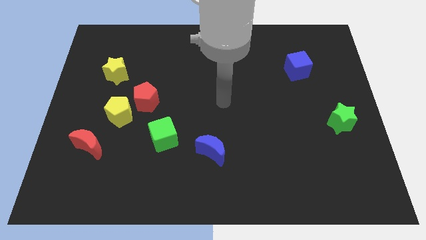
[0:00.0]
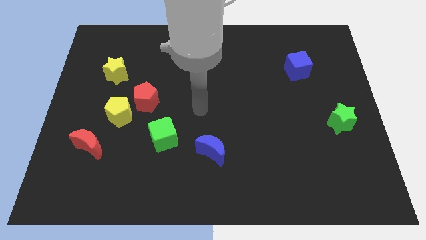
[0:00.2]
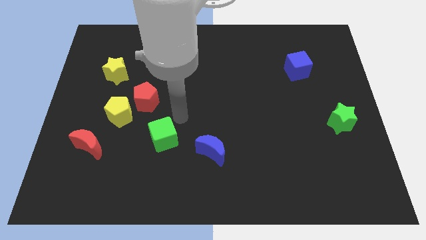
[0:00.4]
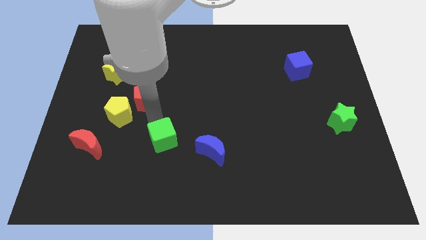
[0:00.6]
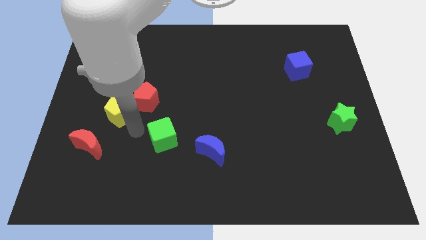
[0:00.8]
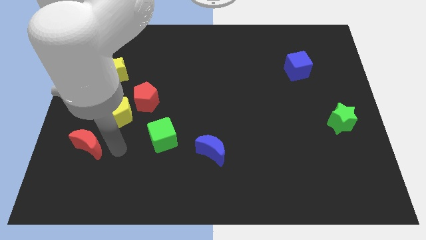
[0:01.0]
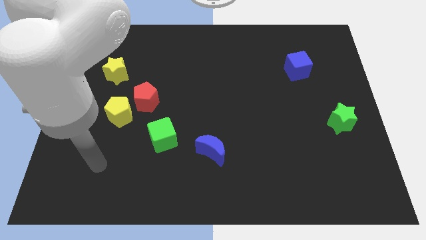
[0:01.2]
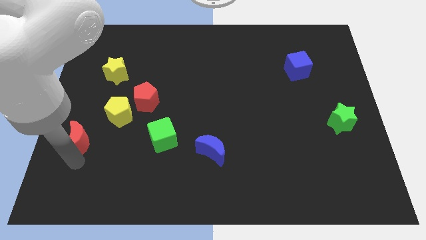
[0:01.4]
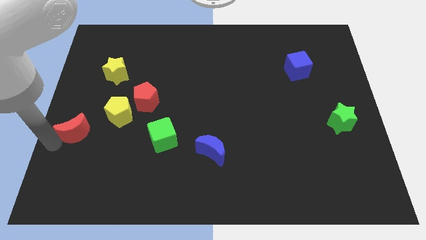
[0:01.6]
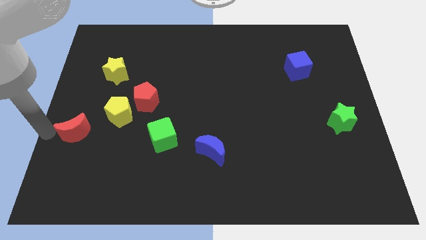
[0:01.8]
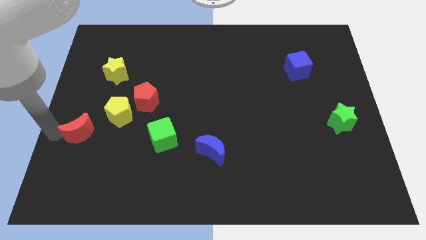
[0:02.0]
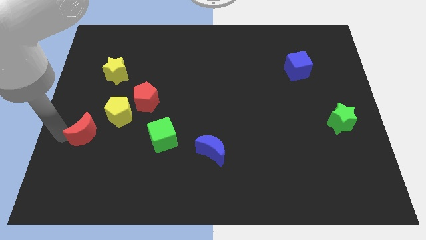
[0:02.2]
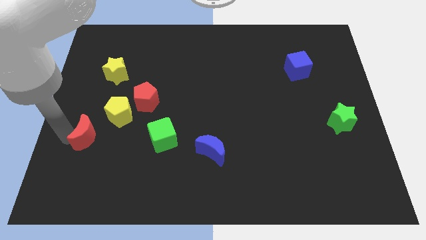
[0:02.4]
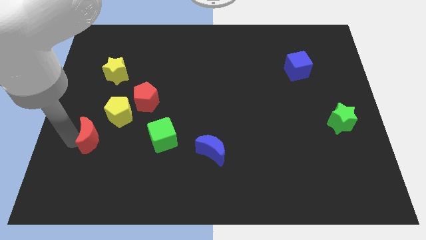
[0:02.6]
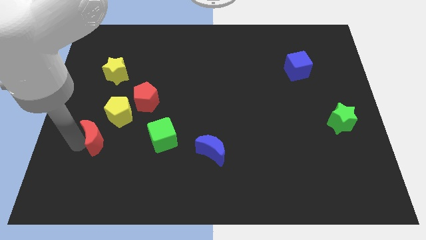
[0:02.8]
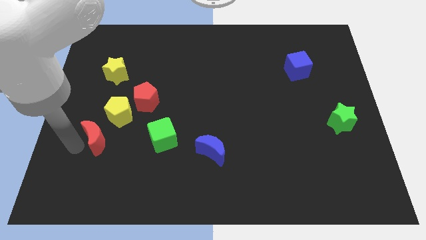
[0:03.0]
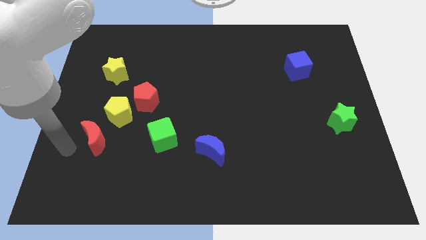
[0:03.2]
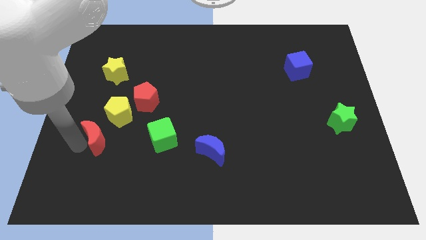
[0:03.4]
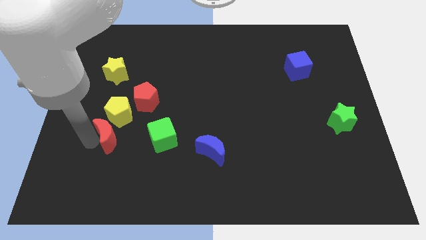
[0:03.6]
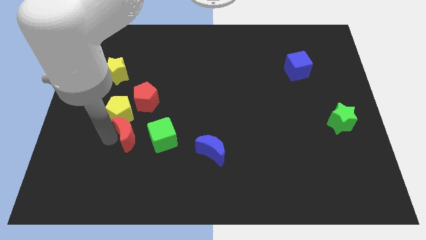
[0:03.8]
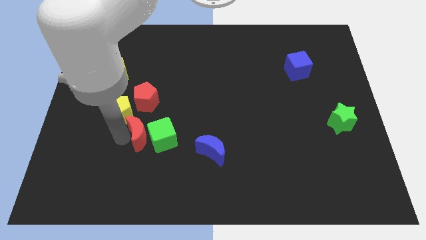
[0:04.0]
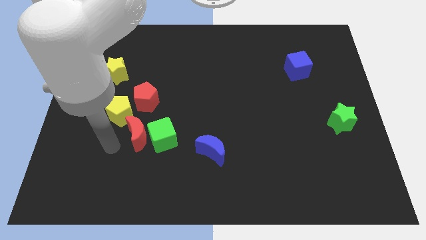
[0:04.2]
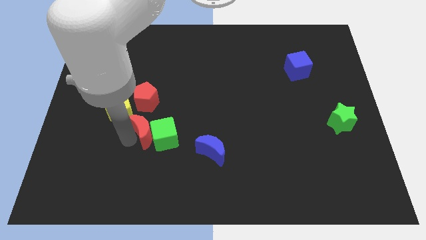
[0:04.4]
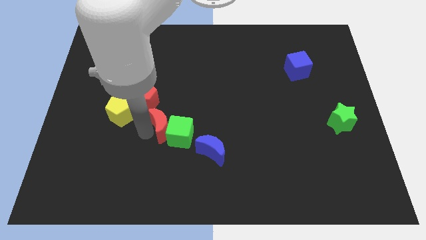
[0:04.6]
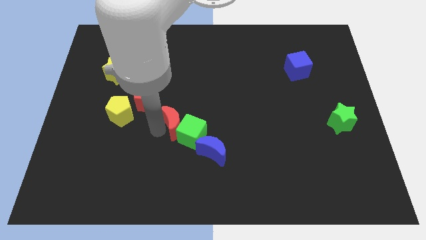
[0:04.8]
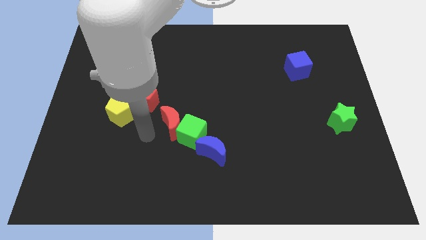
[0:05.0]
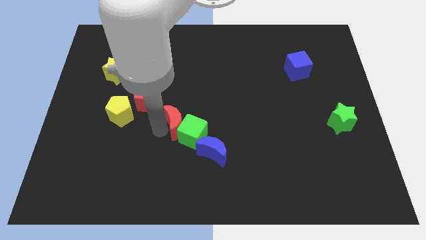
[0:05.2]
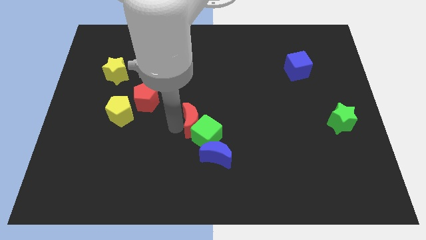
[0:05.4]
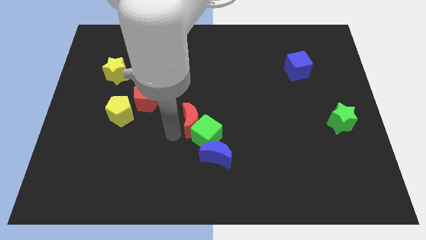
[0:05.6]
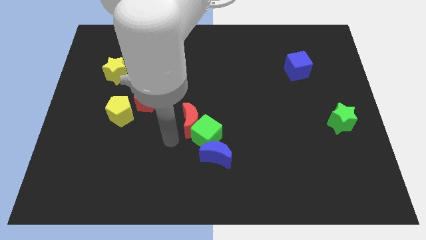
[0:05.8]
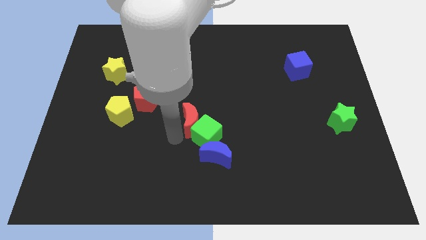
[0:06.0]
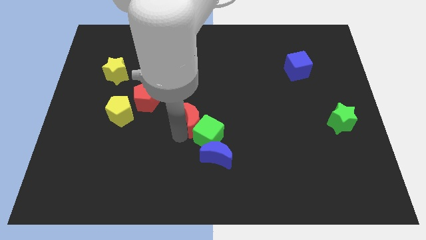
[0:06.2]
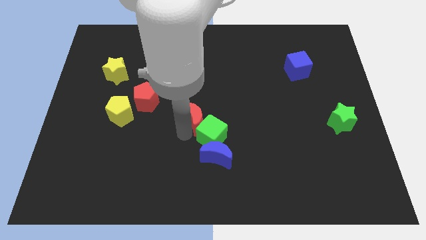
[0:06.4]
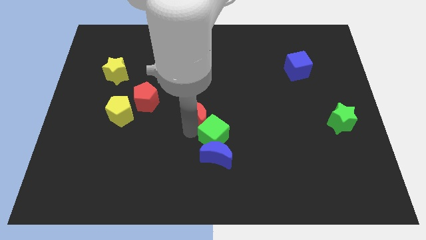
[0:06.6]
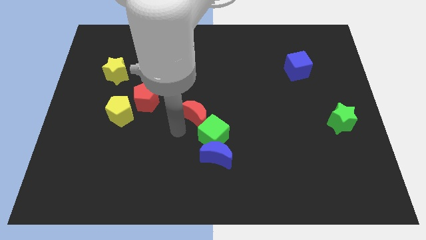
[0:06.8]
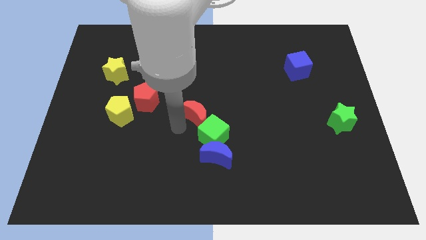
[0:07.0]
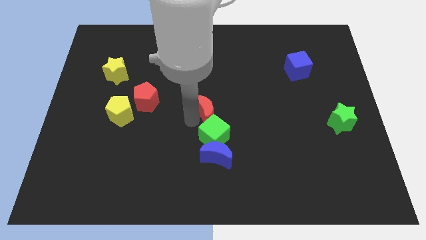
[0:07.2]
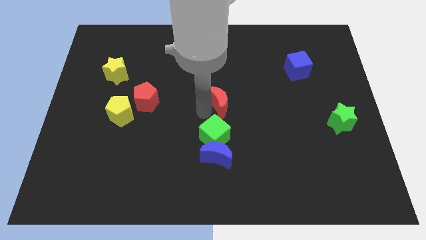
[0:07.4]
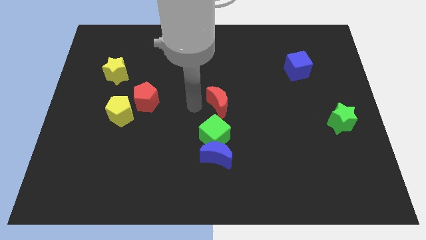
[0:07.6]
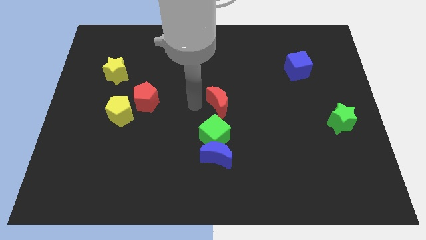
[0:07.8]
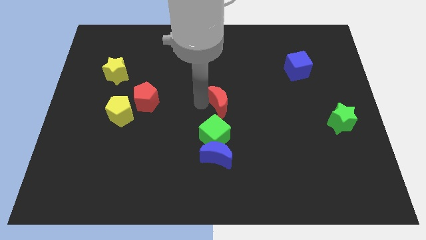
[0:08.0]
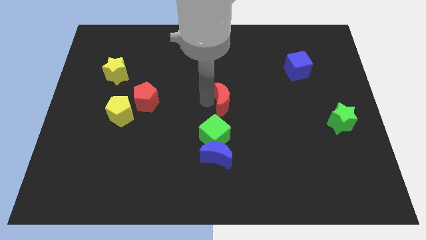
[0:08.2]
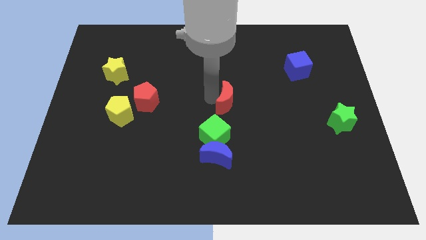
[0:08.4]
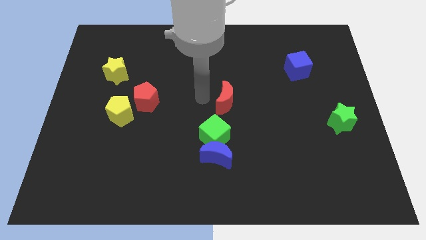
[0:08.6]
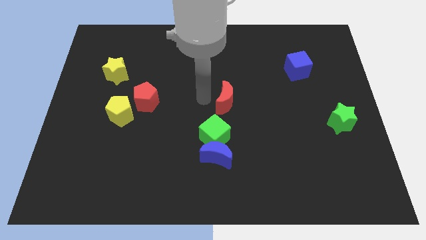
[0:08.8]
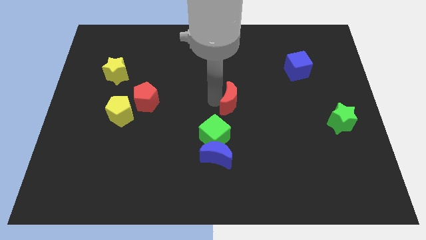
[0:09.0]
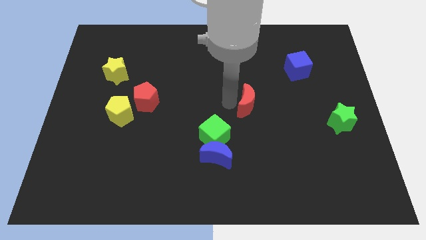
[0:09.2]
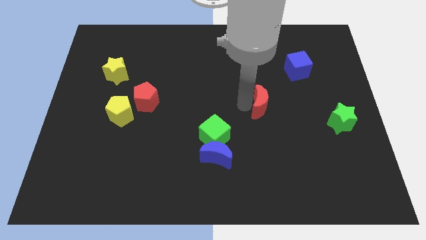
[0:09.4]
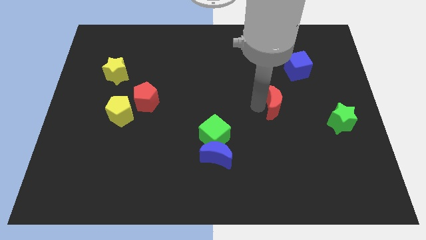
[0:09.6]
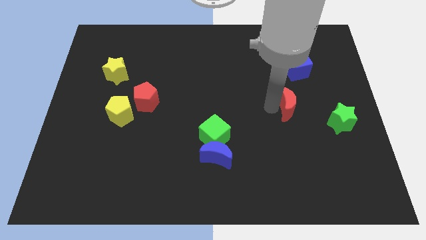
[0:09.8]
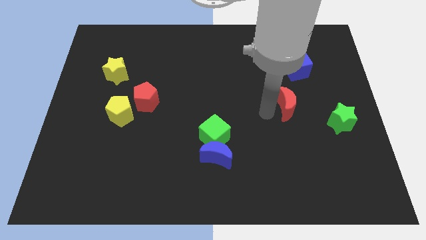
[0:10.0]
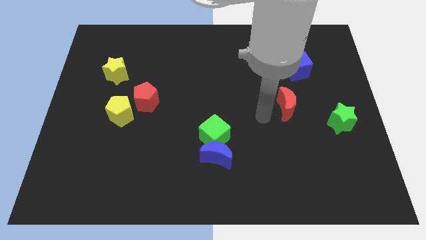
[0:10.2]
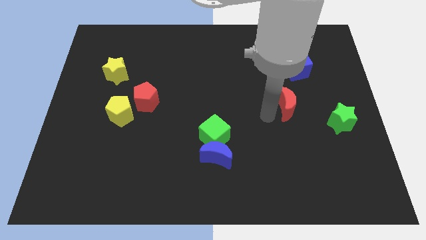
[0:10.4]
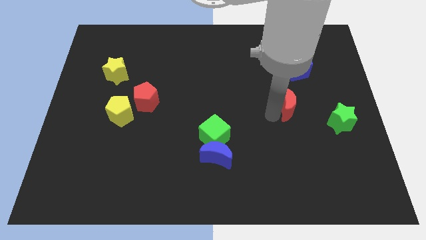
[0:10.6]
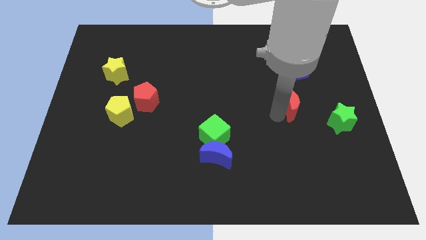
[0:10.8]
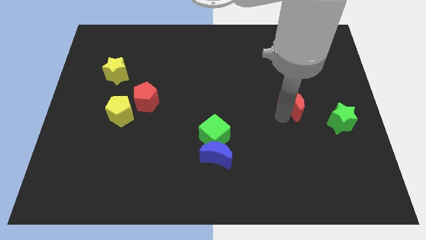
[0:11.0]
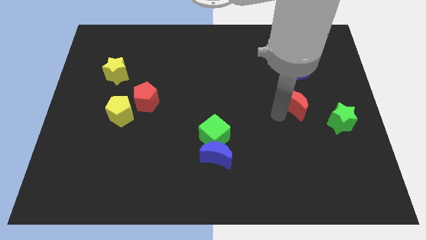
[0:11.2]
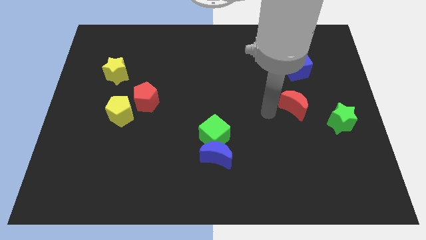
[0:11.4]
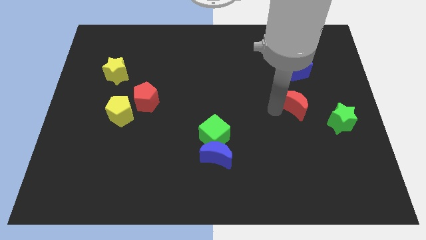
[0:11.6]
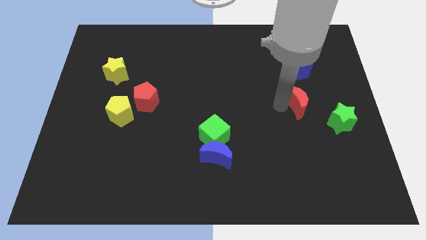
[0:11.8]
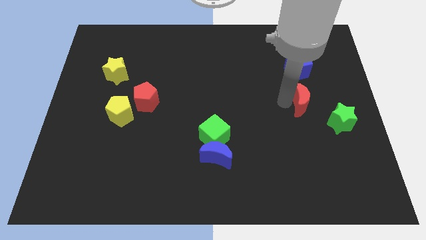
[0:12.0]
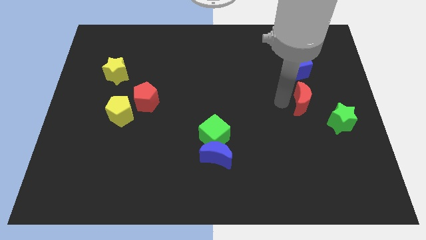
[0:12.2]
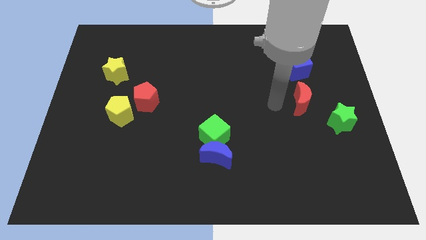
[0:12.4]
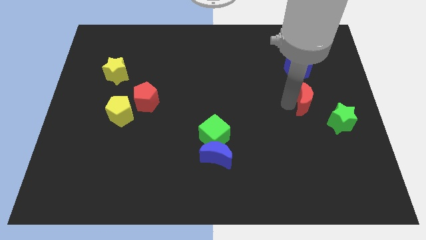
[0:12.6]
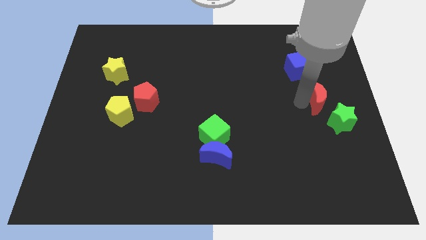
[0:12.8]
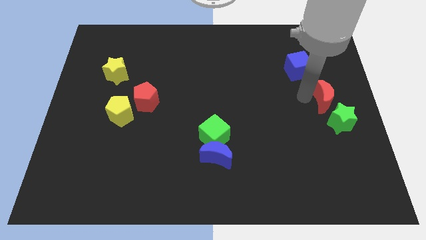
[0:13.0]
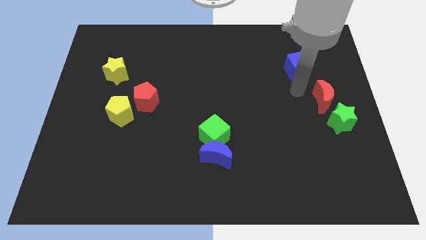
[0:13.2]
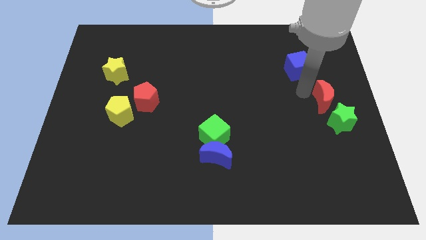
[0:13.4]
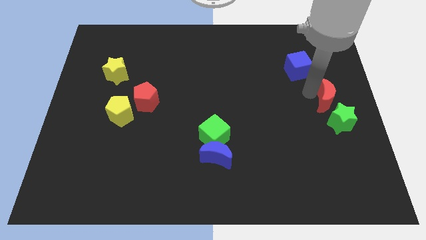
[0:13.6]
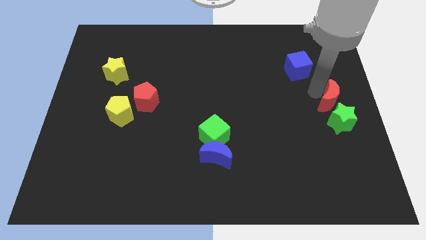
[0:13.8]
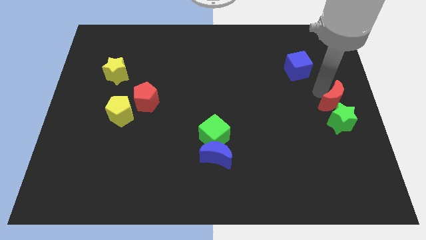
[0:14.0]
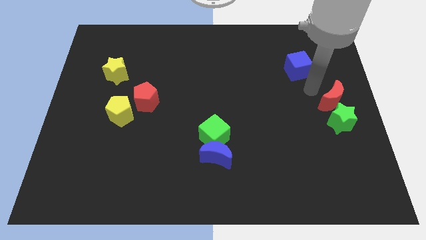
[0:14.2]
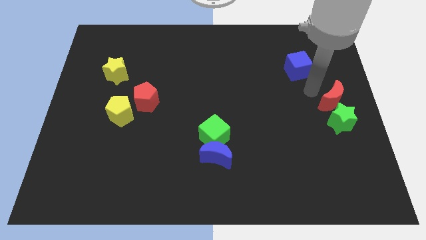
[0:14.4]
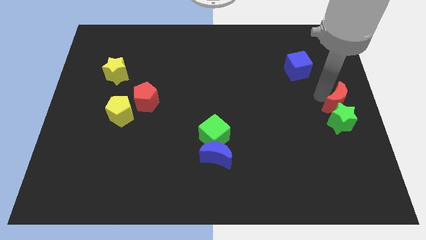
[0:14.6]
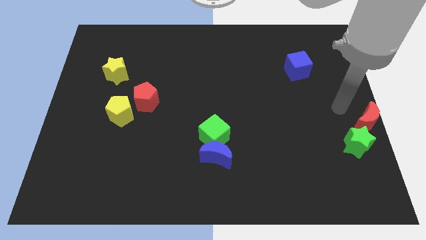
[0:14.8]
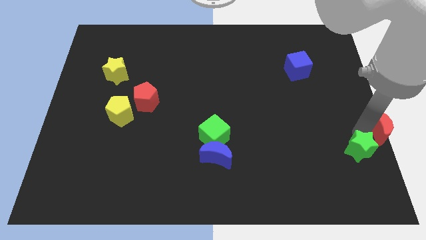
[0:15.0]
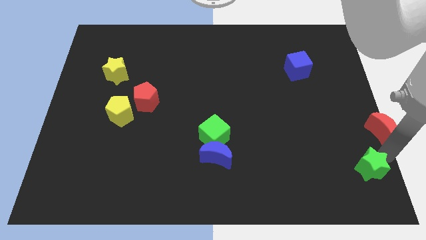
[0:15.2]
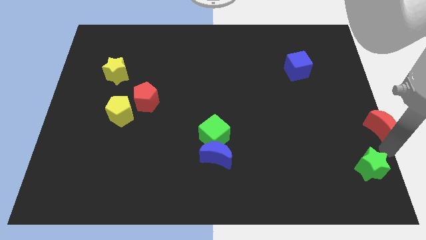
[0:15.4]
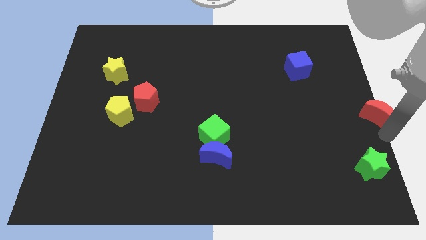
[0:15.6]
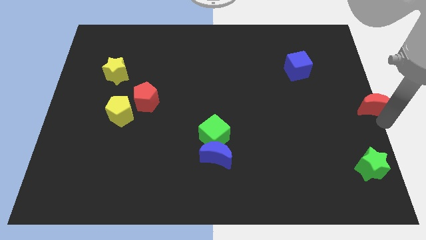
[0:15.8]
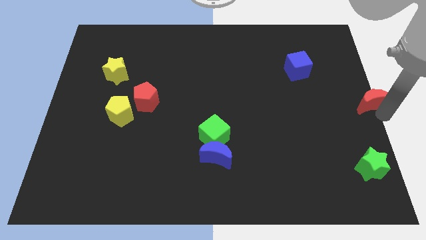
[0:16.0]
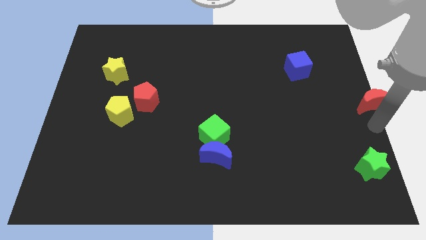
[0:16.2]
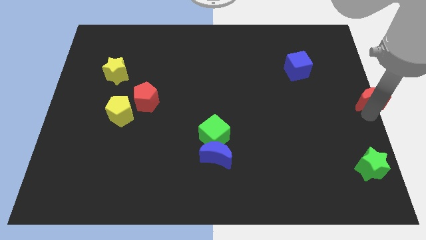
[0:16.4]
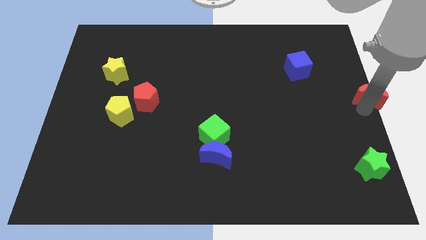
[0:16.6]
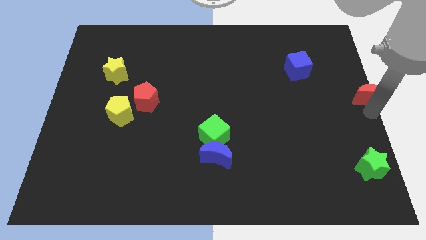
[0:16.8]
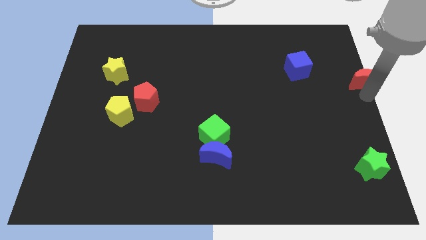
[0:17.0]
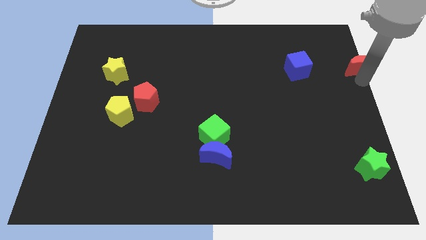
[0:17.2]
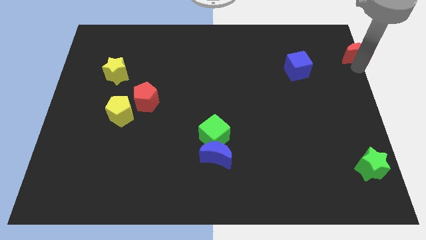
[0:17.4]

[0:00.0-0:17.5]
put the red moon to the top right
